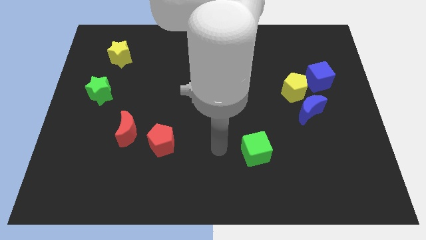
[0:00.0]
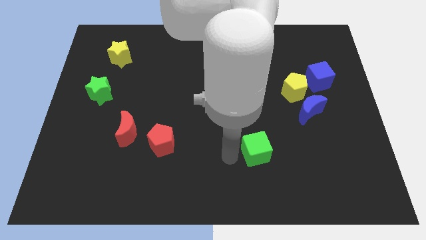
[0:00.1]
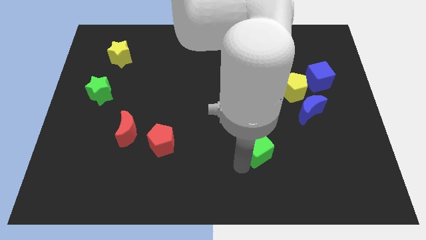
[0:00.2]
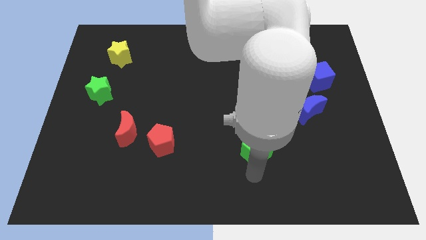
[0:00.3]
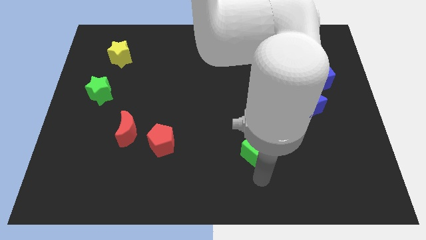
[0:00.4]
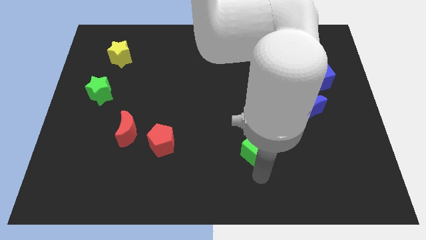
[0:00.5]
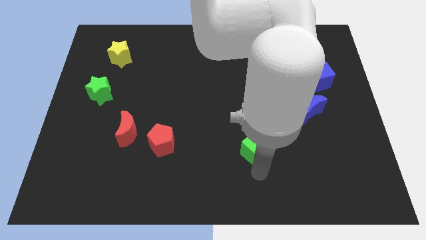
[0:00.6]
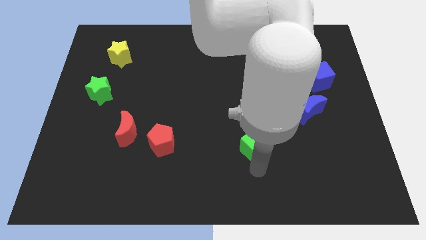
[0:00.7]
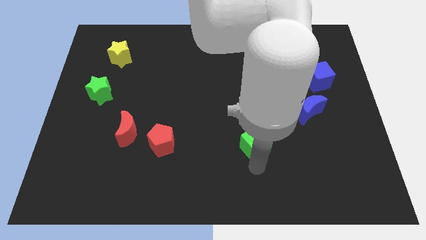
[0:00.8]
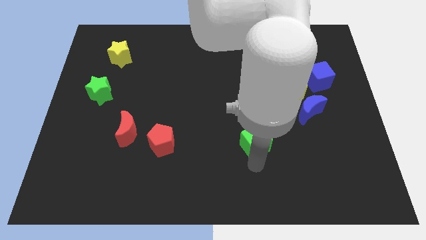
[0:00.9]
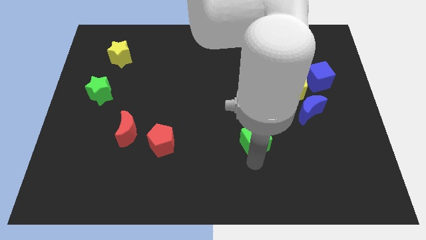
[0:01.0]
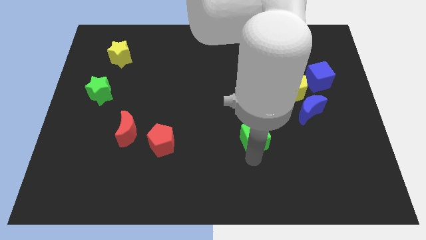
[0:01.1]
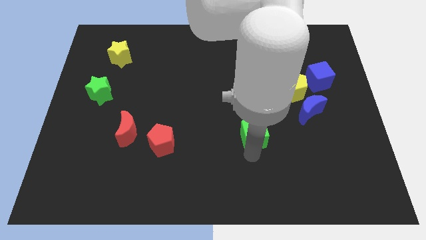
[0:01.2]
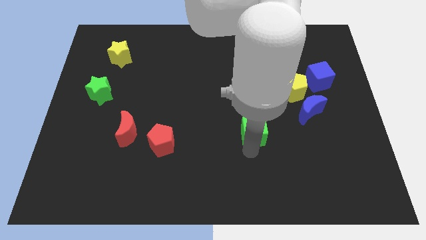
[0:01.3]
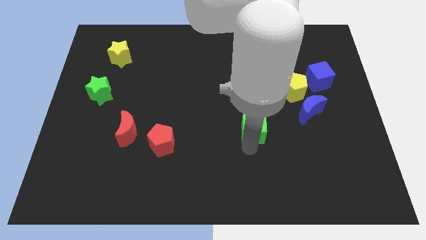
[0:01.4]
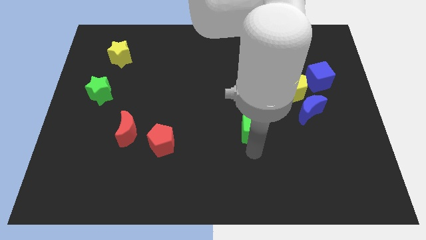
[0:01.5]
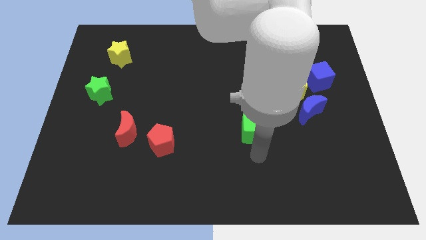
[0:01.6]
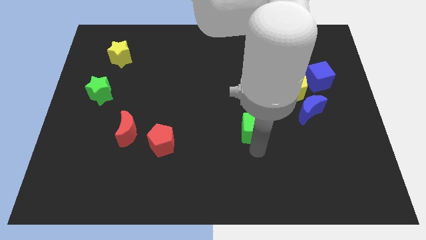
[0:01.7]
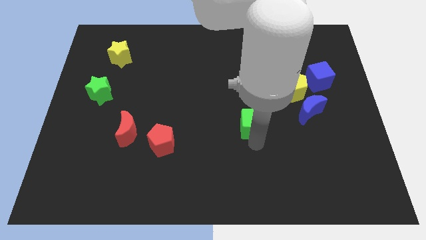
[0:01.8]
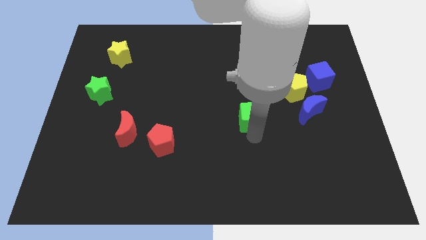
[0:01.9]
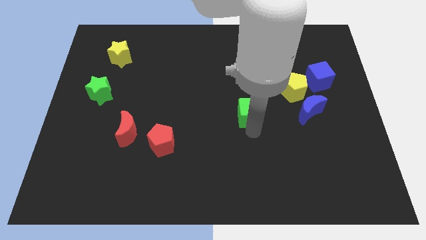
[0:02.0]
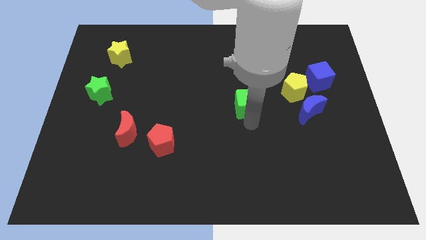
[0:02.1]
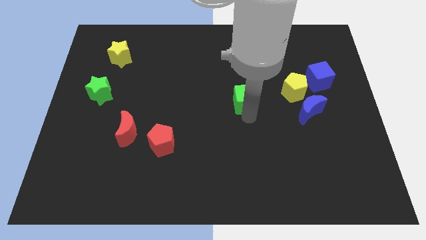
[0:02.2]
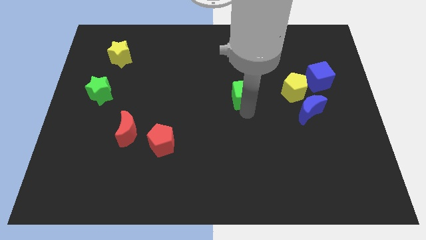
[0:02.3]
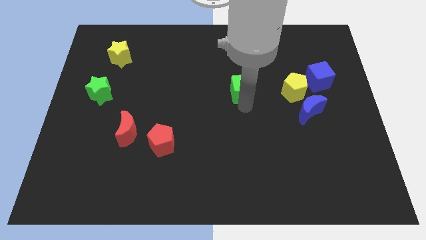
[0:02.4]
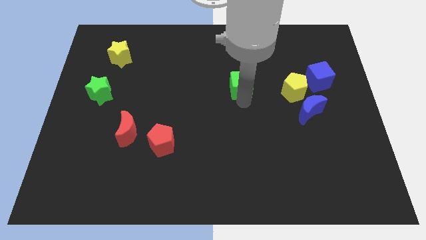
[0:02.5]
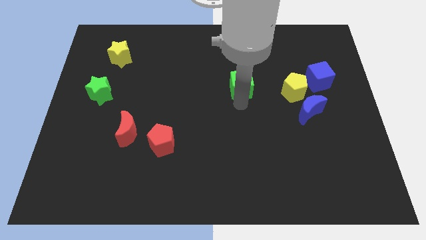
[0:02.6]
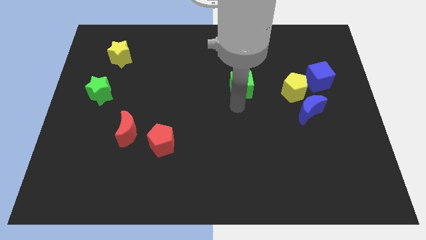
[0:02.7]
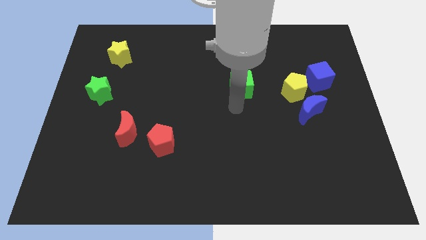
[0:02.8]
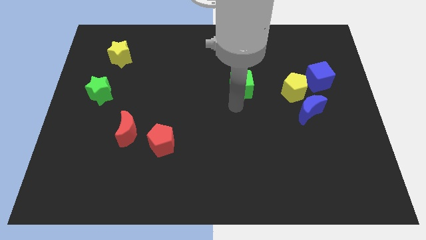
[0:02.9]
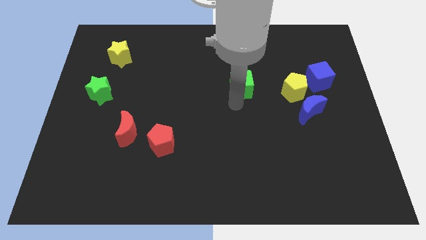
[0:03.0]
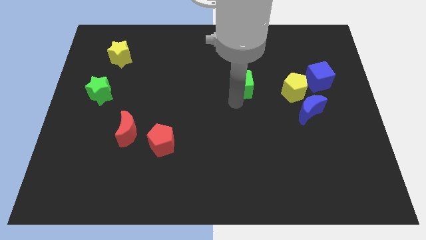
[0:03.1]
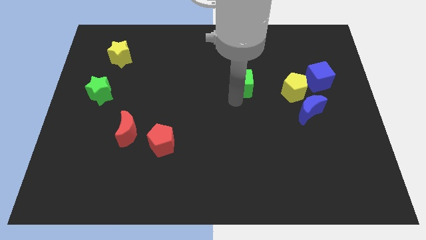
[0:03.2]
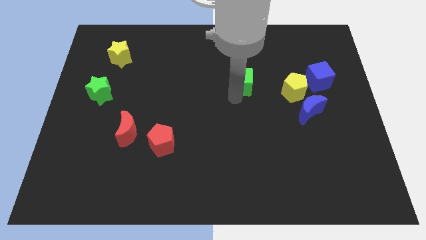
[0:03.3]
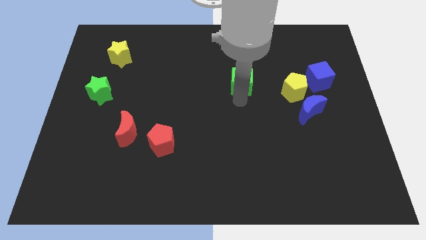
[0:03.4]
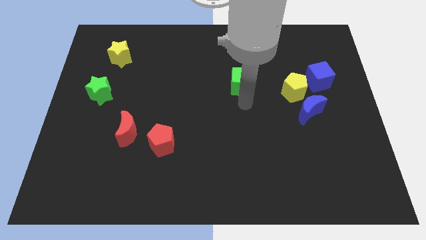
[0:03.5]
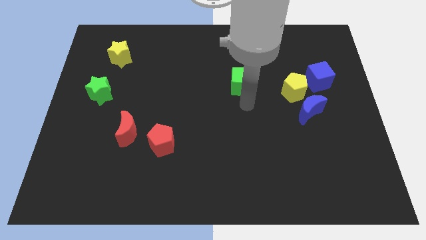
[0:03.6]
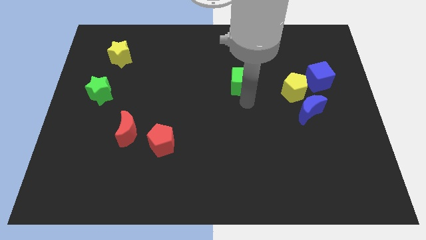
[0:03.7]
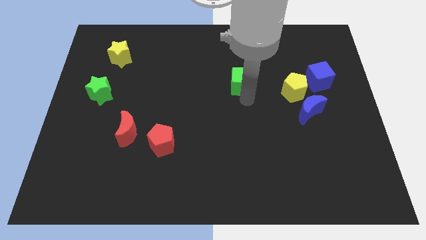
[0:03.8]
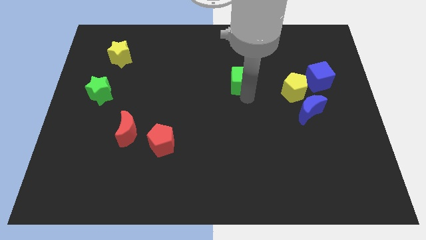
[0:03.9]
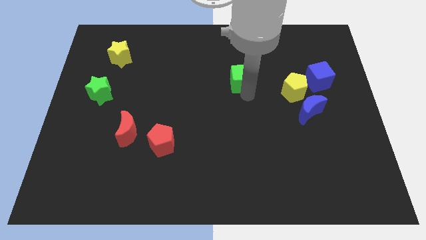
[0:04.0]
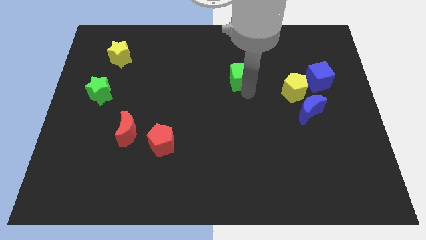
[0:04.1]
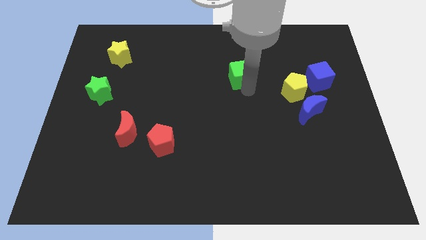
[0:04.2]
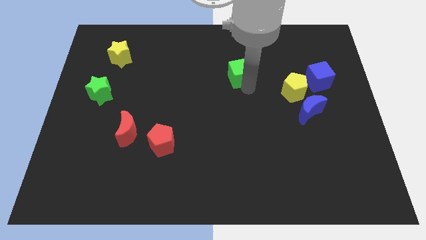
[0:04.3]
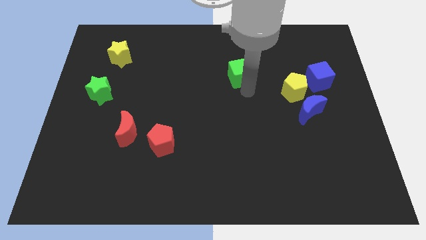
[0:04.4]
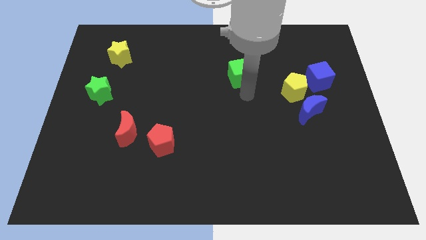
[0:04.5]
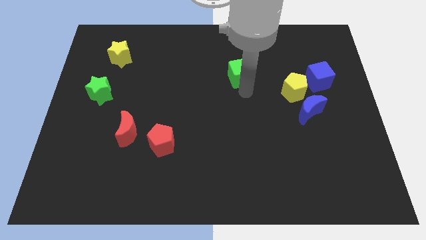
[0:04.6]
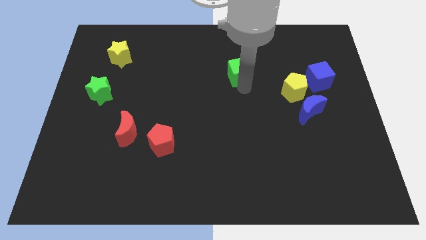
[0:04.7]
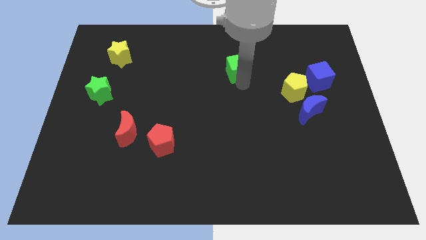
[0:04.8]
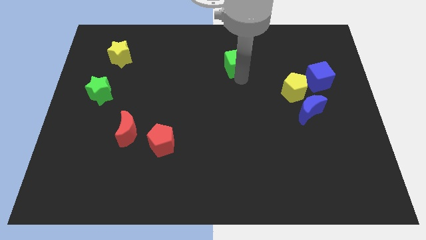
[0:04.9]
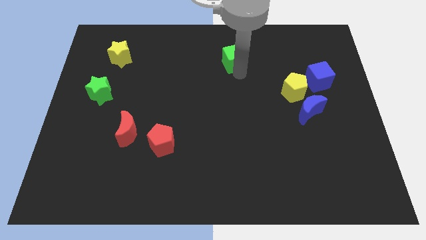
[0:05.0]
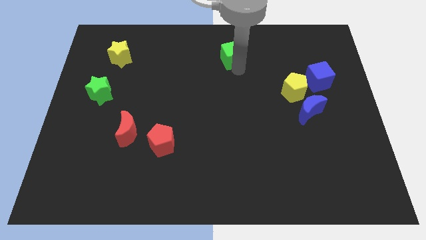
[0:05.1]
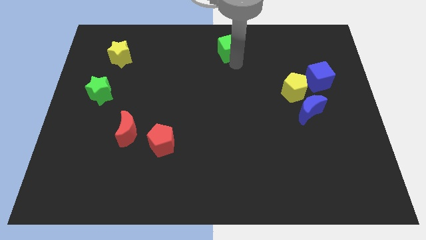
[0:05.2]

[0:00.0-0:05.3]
move the green cube to the towards your base

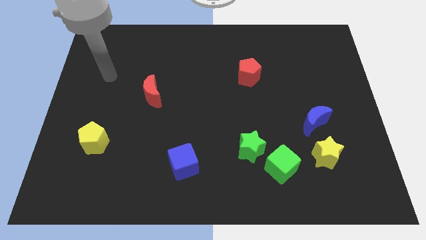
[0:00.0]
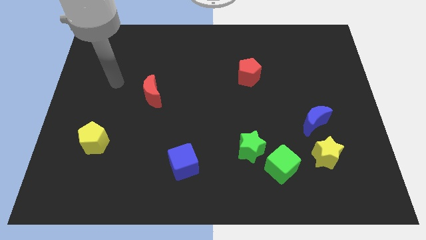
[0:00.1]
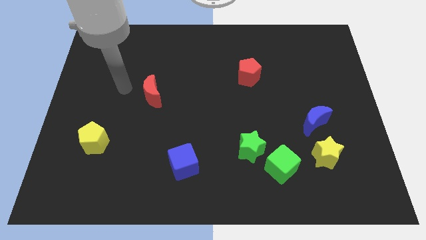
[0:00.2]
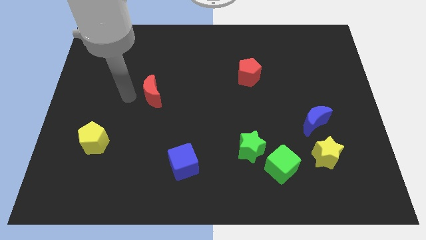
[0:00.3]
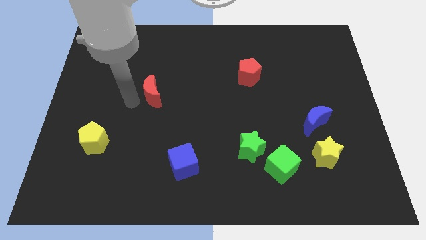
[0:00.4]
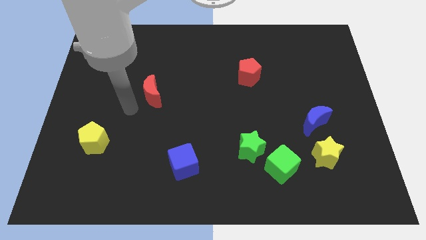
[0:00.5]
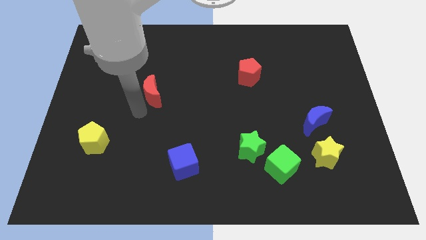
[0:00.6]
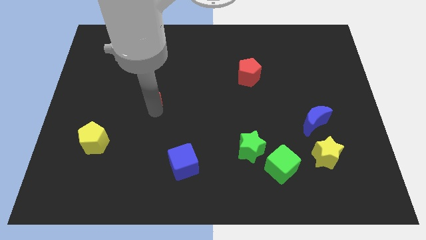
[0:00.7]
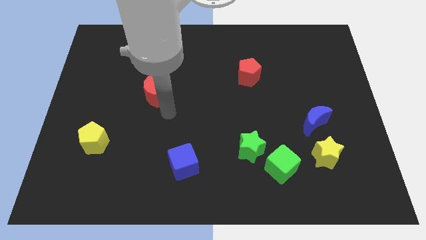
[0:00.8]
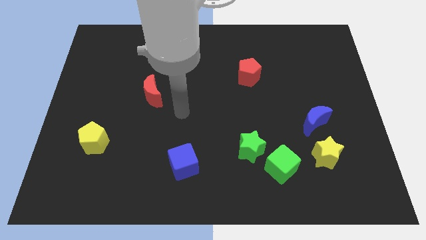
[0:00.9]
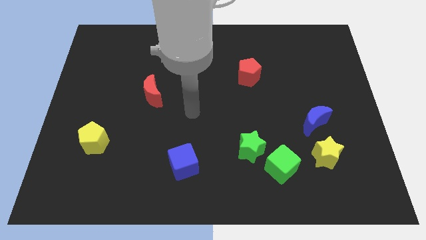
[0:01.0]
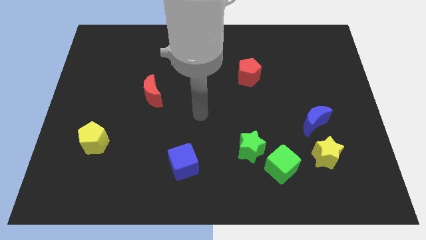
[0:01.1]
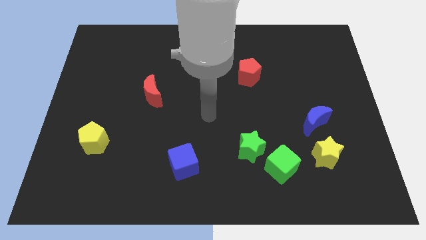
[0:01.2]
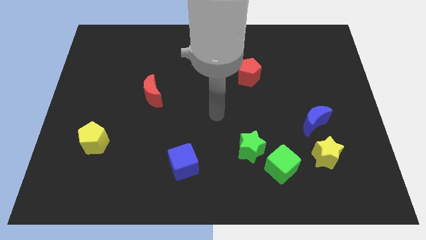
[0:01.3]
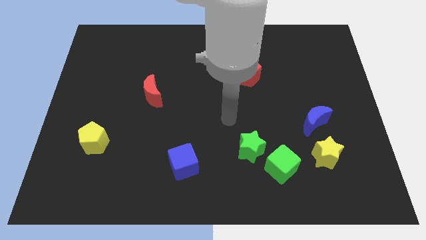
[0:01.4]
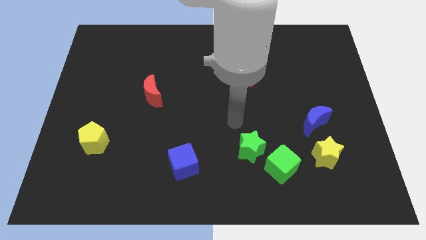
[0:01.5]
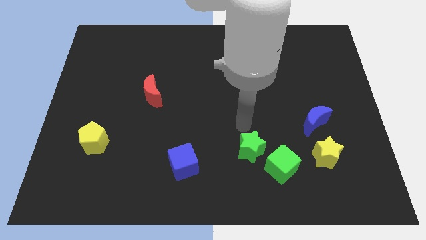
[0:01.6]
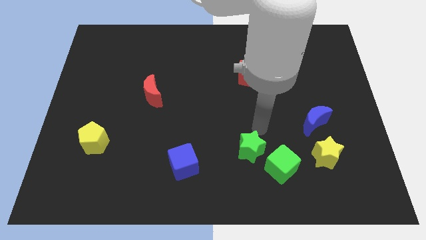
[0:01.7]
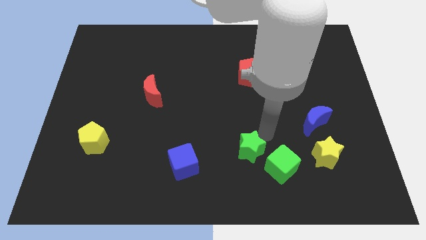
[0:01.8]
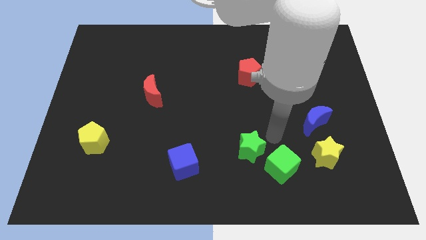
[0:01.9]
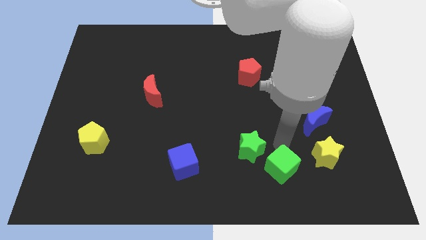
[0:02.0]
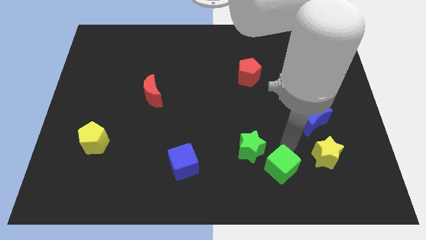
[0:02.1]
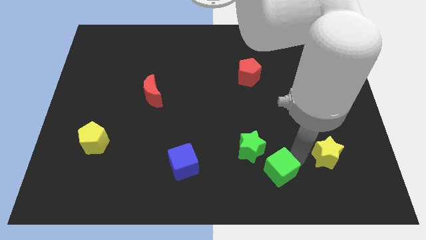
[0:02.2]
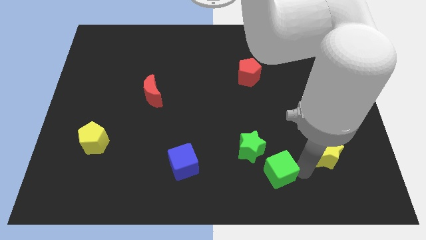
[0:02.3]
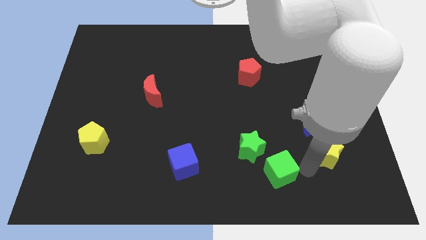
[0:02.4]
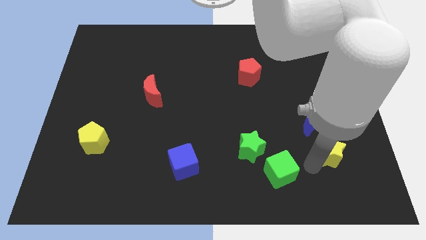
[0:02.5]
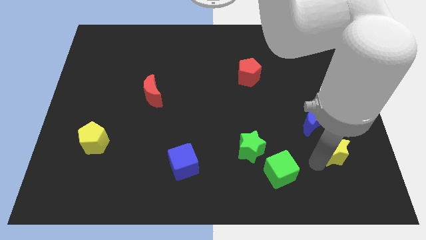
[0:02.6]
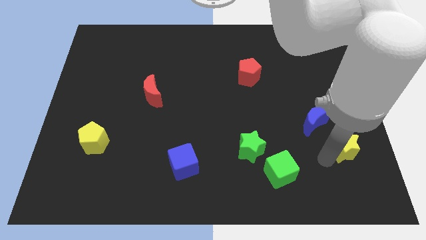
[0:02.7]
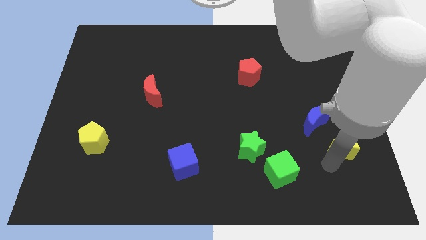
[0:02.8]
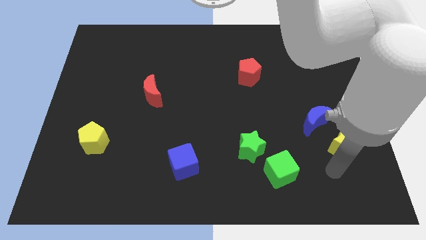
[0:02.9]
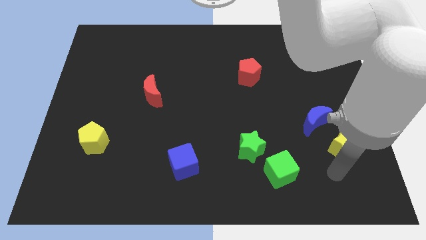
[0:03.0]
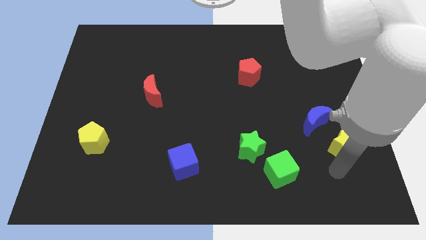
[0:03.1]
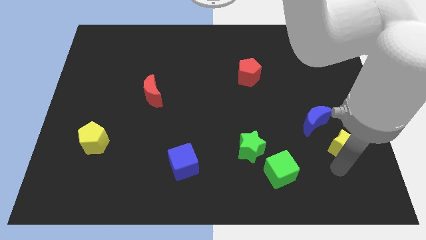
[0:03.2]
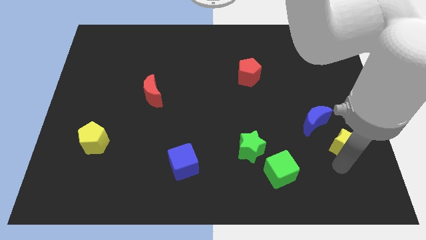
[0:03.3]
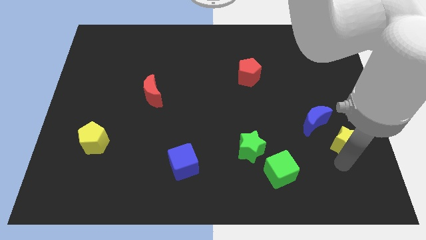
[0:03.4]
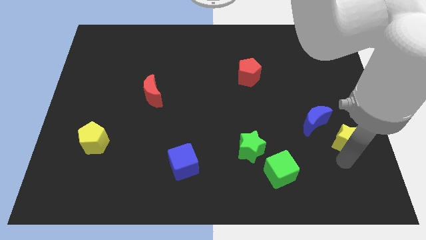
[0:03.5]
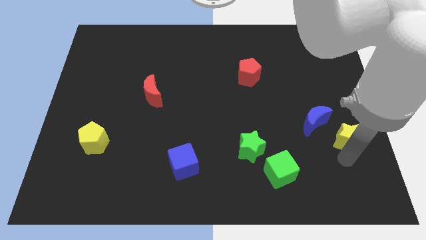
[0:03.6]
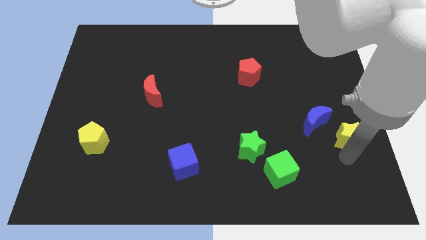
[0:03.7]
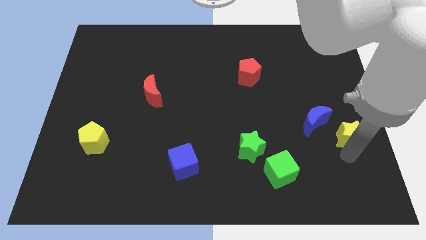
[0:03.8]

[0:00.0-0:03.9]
put the yellow star to the right side of the board
